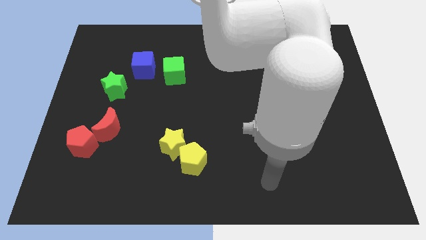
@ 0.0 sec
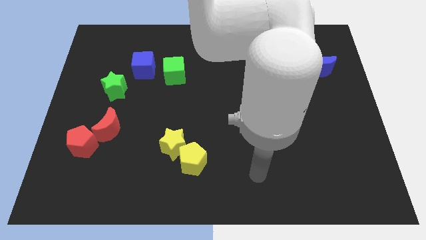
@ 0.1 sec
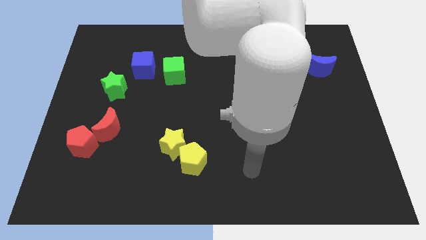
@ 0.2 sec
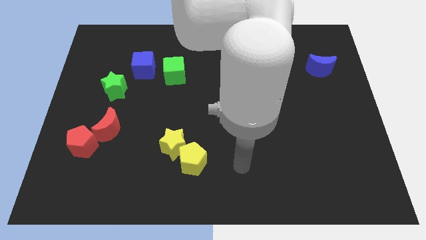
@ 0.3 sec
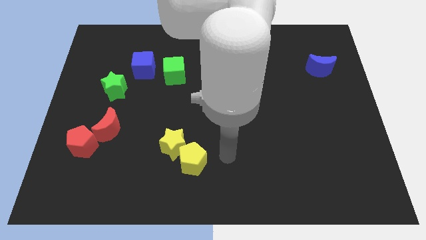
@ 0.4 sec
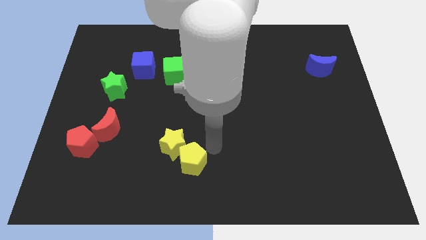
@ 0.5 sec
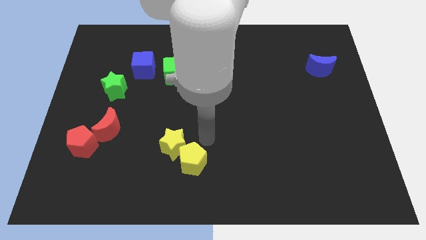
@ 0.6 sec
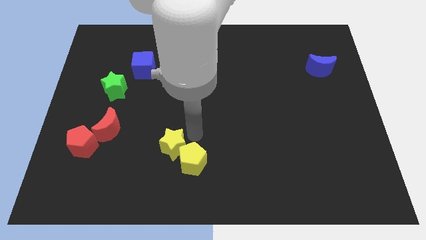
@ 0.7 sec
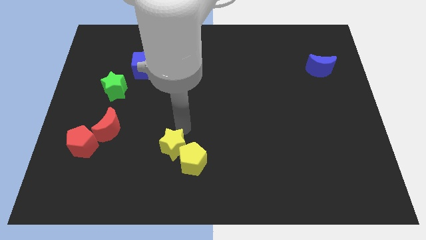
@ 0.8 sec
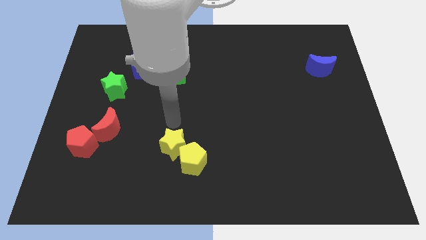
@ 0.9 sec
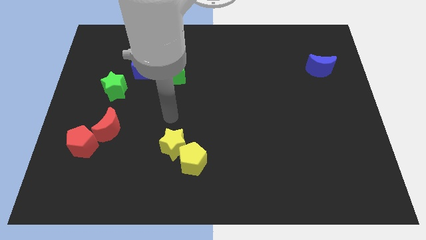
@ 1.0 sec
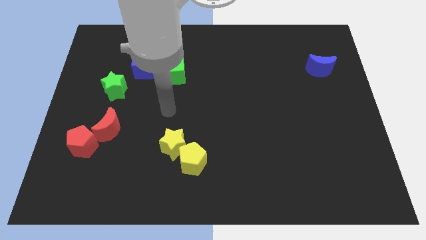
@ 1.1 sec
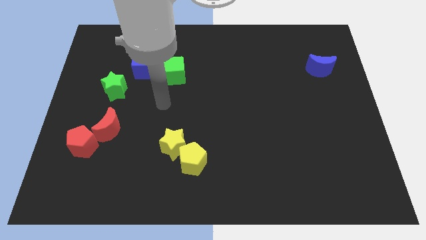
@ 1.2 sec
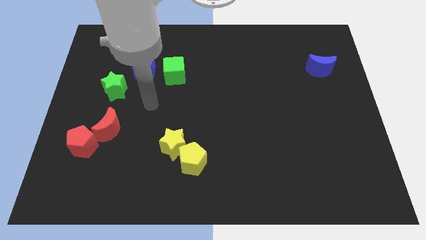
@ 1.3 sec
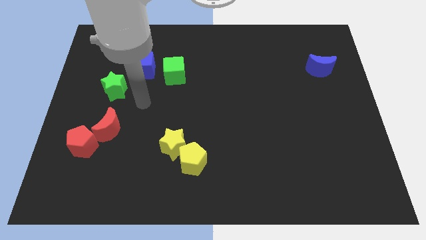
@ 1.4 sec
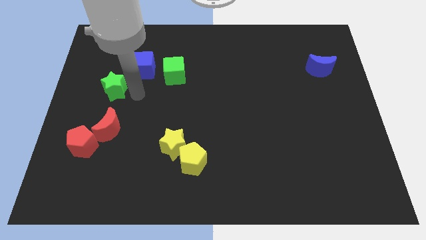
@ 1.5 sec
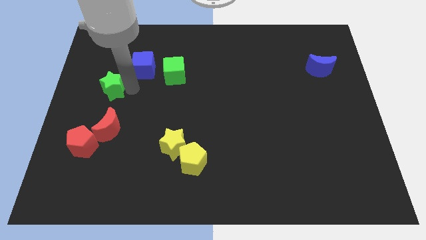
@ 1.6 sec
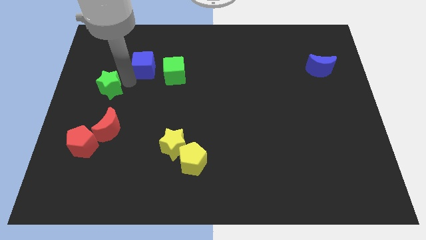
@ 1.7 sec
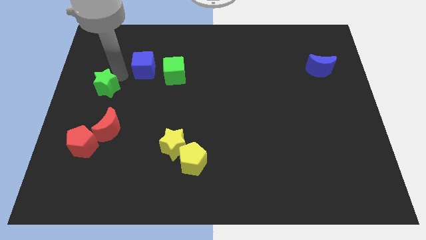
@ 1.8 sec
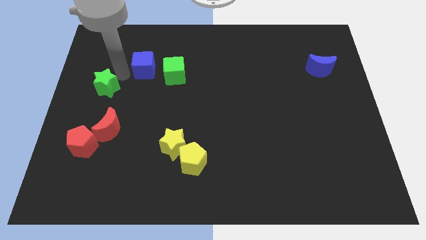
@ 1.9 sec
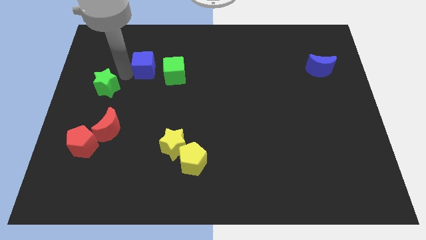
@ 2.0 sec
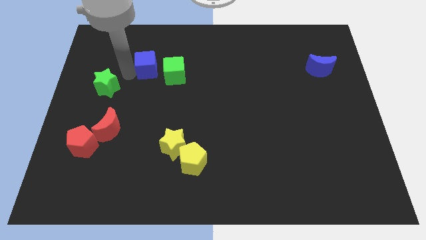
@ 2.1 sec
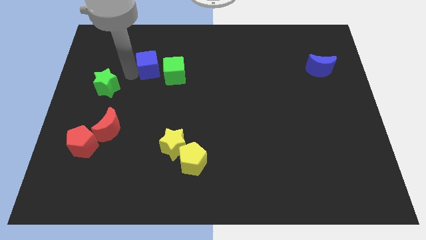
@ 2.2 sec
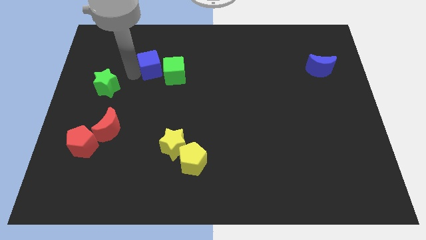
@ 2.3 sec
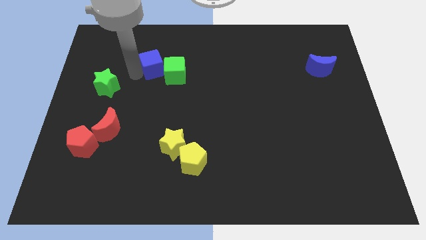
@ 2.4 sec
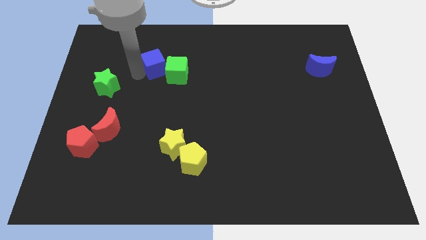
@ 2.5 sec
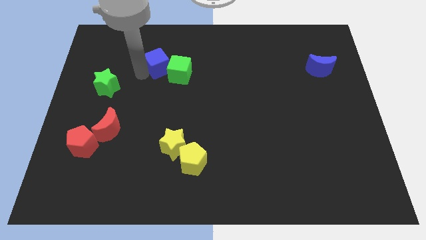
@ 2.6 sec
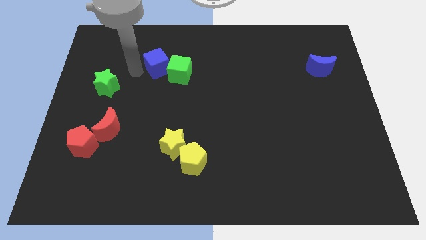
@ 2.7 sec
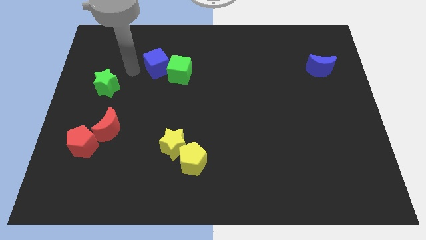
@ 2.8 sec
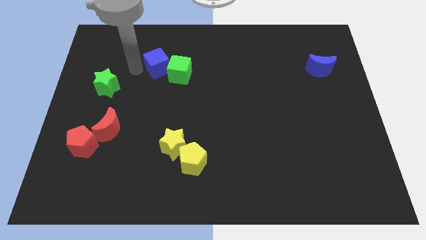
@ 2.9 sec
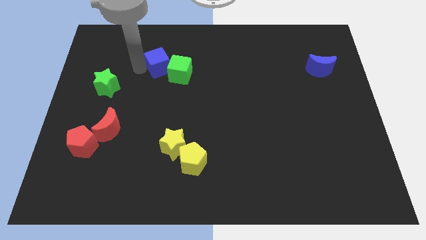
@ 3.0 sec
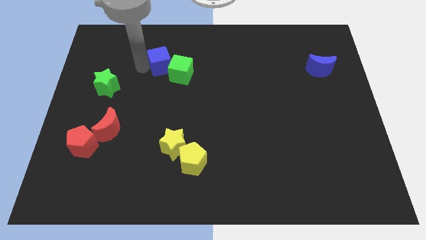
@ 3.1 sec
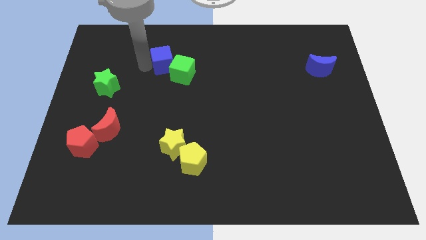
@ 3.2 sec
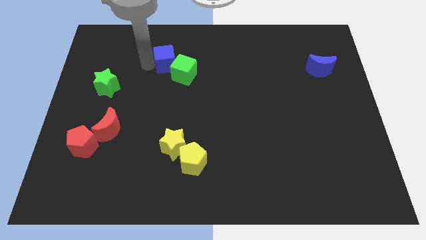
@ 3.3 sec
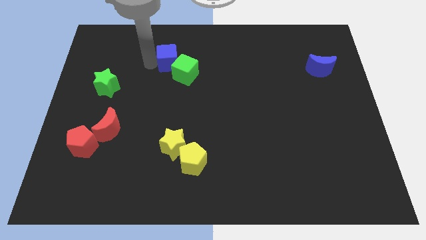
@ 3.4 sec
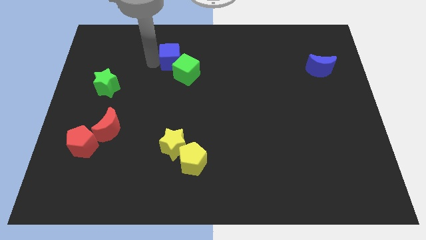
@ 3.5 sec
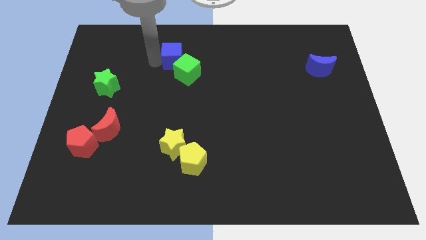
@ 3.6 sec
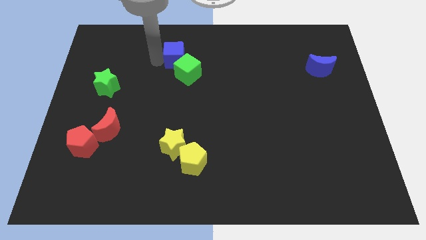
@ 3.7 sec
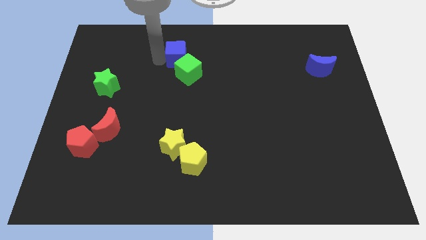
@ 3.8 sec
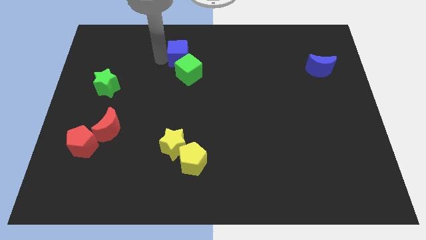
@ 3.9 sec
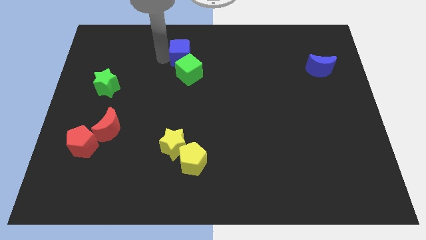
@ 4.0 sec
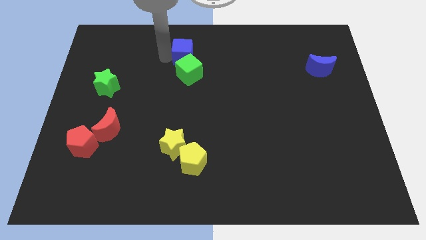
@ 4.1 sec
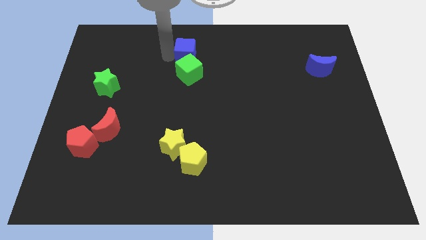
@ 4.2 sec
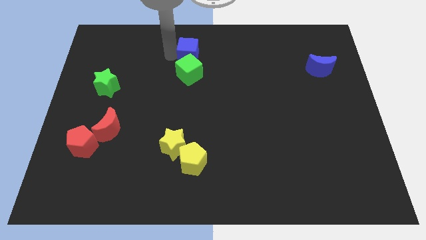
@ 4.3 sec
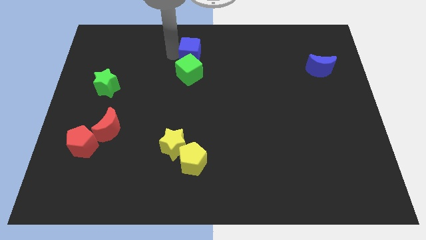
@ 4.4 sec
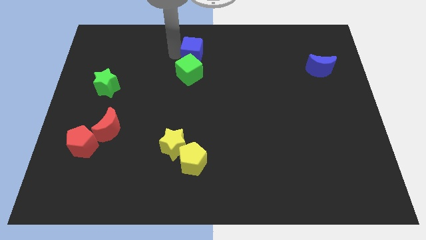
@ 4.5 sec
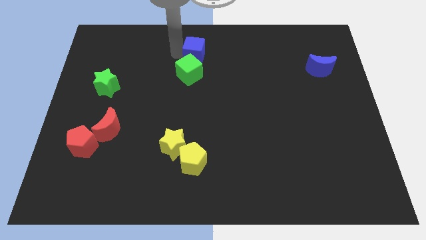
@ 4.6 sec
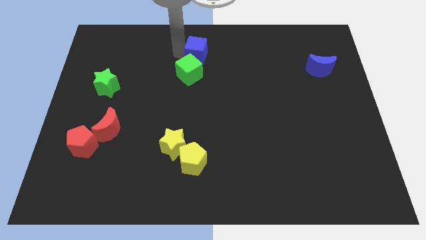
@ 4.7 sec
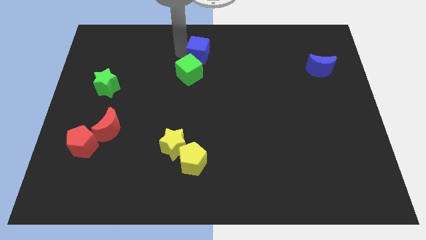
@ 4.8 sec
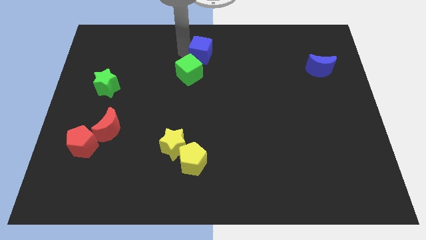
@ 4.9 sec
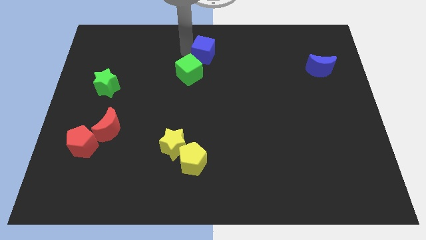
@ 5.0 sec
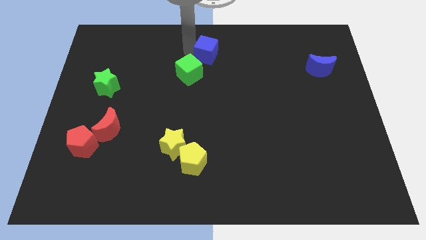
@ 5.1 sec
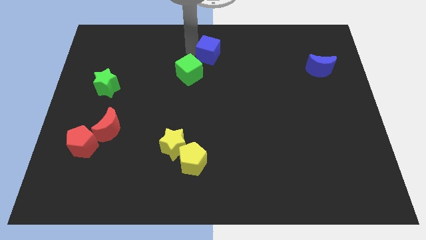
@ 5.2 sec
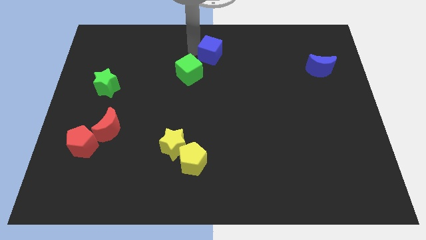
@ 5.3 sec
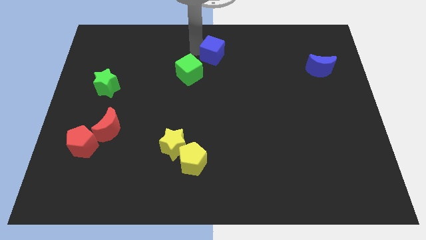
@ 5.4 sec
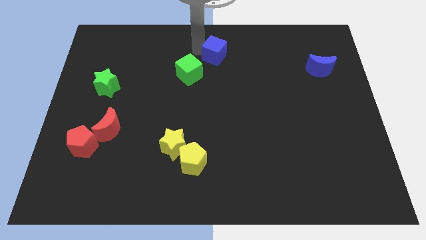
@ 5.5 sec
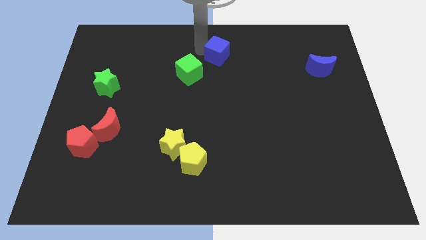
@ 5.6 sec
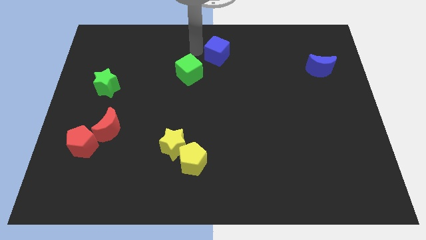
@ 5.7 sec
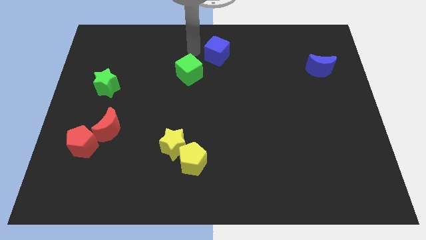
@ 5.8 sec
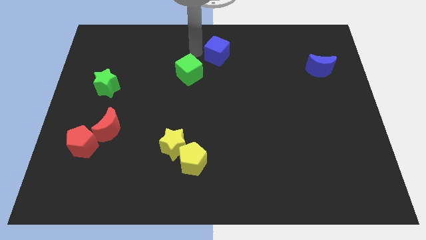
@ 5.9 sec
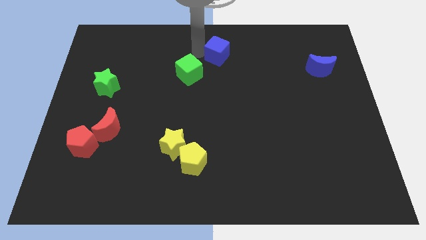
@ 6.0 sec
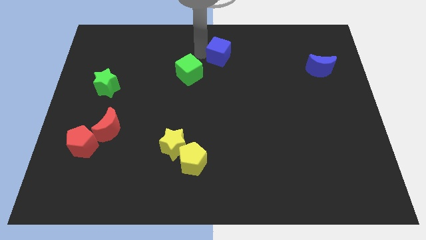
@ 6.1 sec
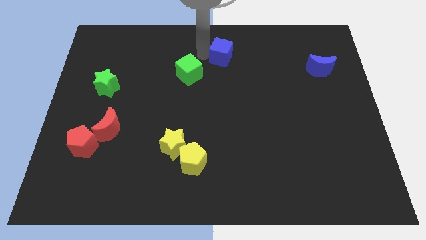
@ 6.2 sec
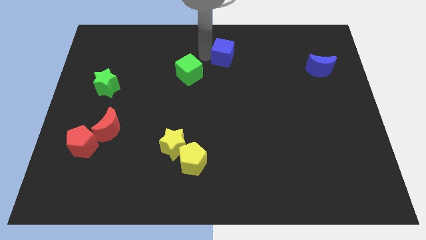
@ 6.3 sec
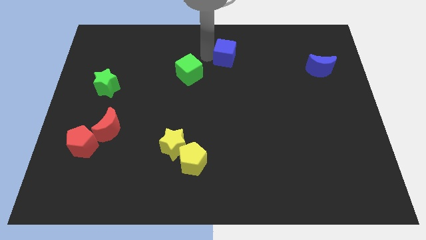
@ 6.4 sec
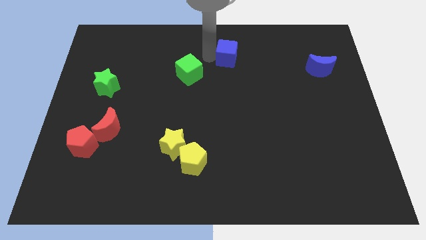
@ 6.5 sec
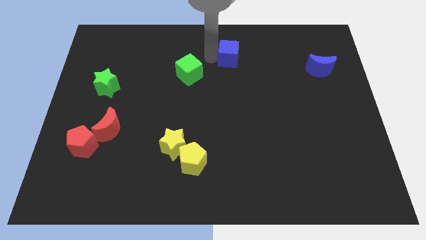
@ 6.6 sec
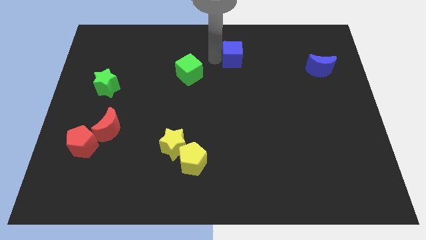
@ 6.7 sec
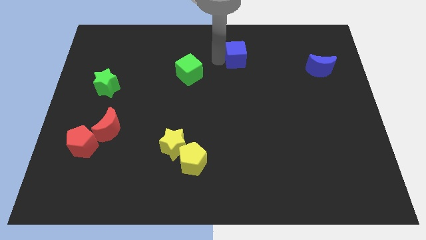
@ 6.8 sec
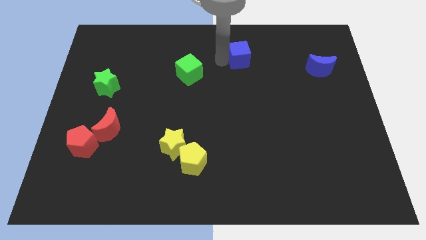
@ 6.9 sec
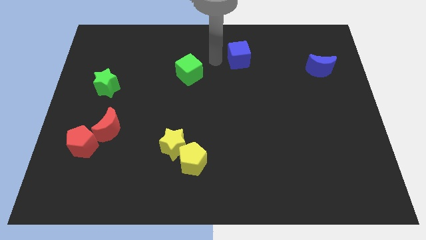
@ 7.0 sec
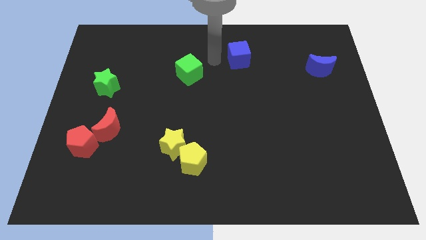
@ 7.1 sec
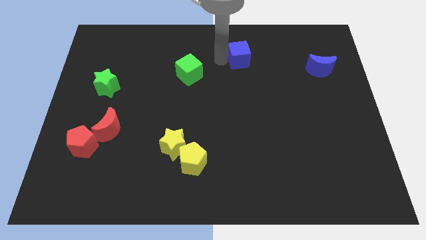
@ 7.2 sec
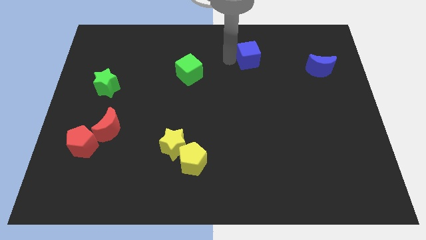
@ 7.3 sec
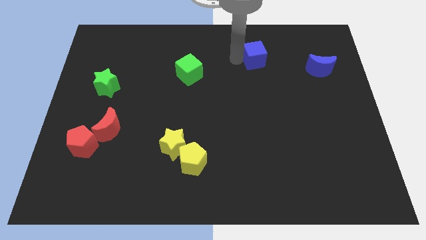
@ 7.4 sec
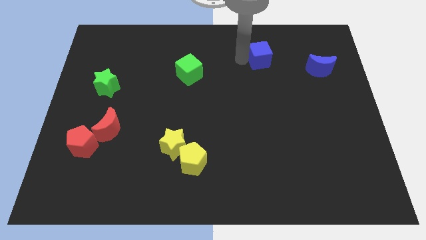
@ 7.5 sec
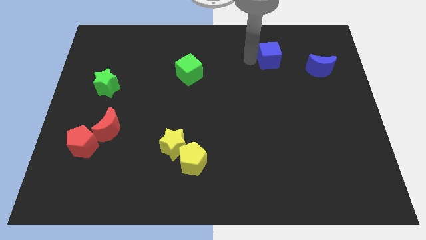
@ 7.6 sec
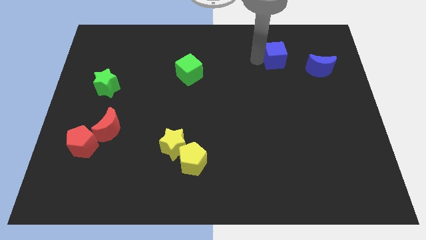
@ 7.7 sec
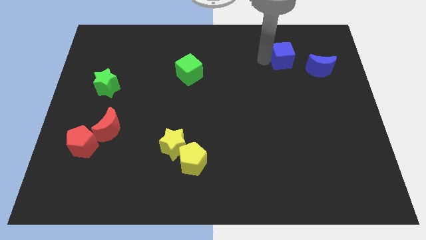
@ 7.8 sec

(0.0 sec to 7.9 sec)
put the blue cube diagonally up and to the left of the blue moon
